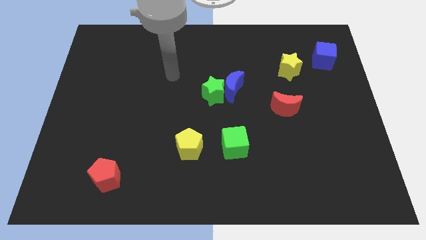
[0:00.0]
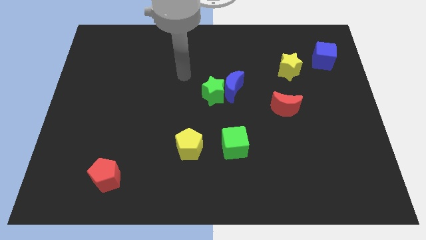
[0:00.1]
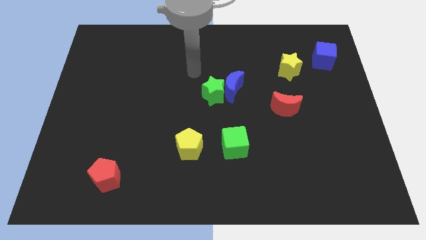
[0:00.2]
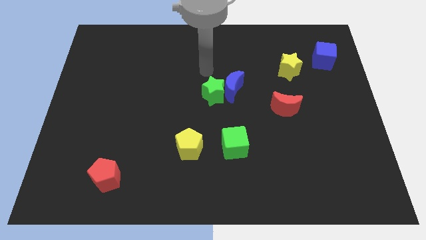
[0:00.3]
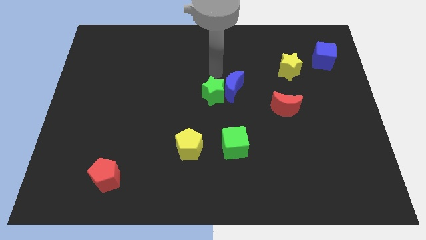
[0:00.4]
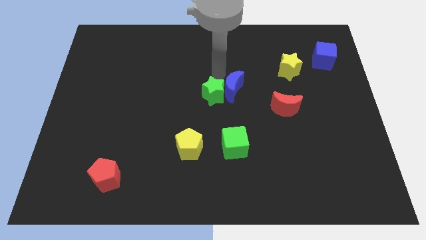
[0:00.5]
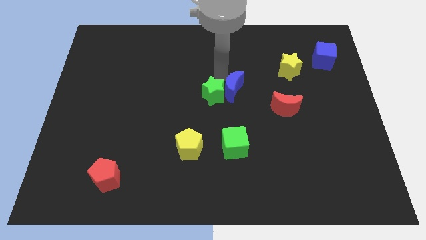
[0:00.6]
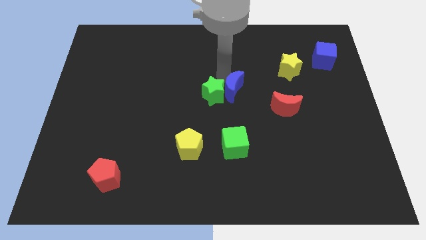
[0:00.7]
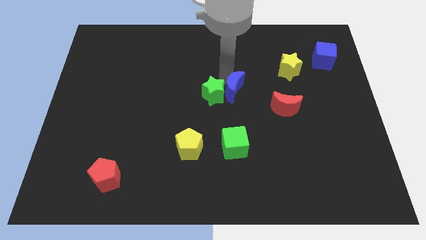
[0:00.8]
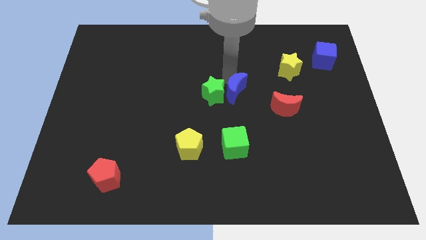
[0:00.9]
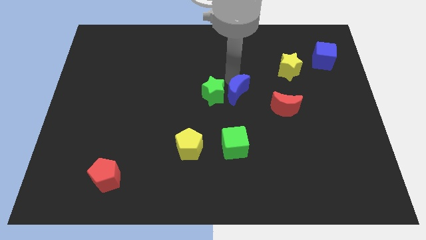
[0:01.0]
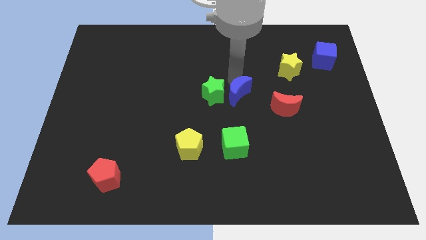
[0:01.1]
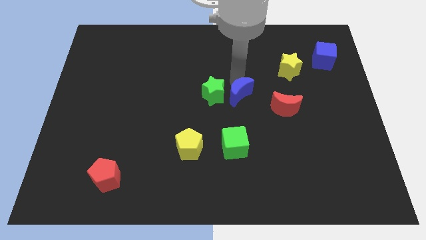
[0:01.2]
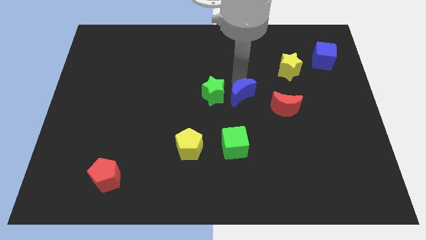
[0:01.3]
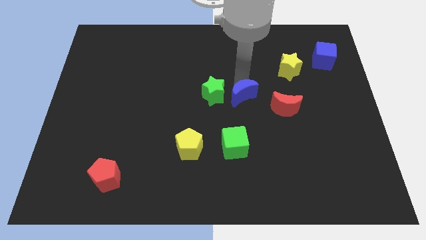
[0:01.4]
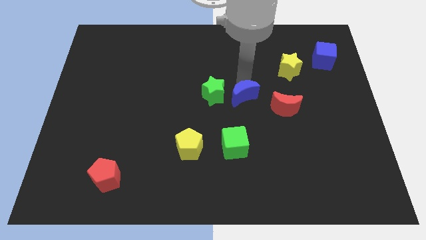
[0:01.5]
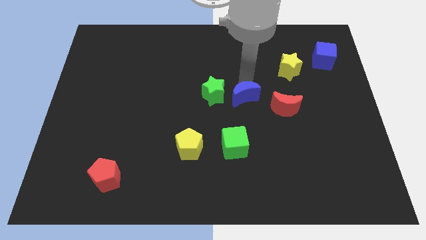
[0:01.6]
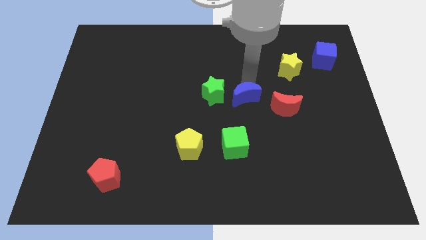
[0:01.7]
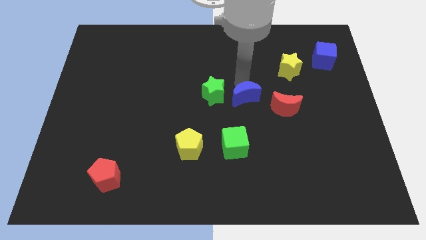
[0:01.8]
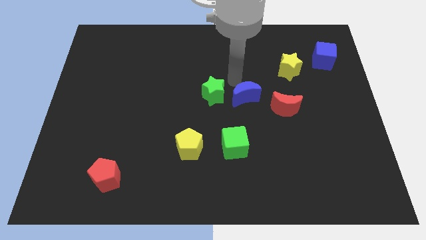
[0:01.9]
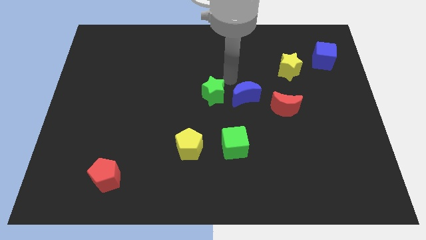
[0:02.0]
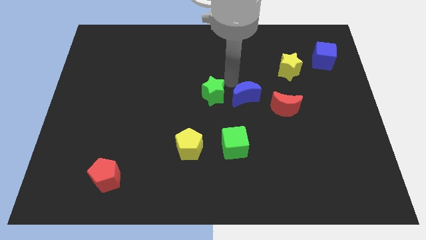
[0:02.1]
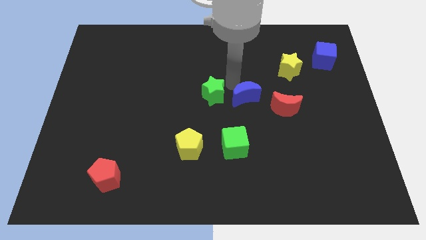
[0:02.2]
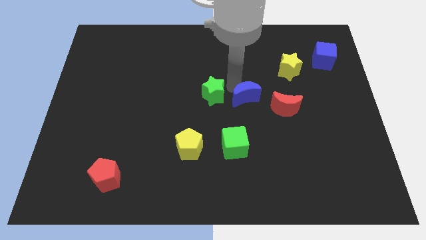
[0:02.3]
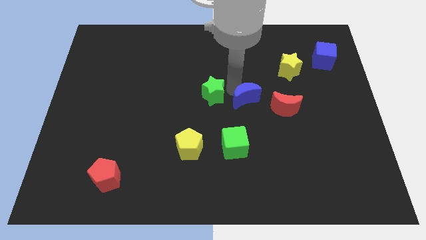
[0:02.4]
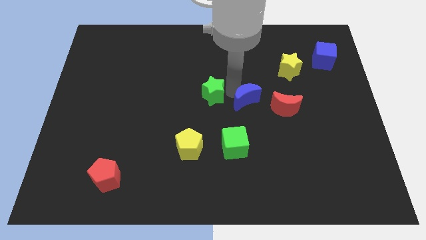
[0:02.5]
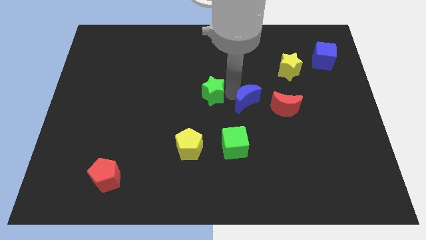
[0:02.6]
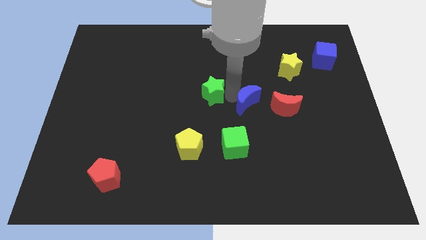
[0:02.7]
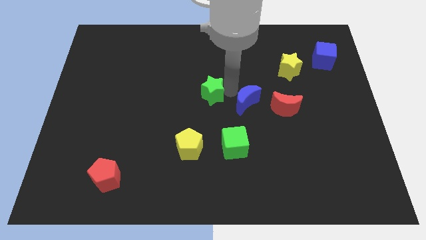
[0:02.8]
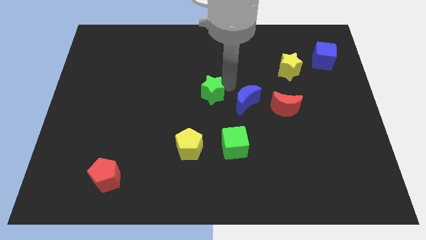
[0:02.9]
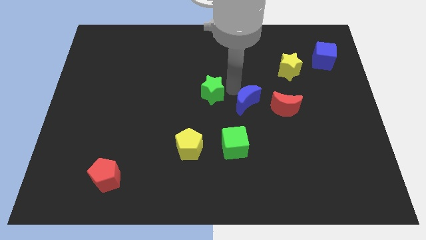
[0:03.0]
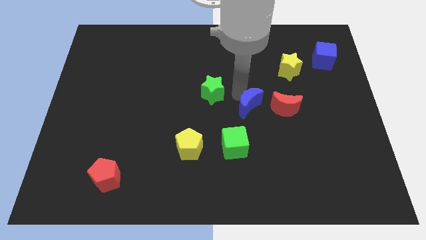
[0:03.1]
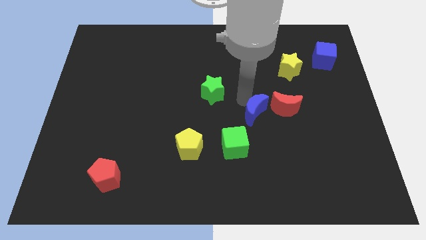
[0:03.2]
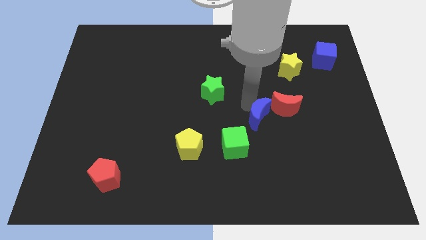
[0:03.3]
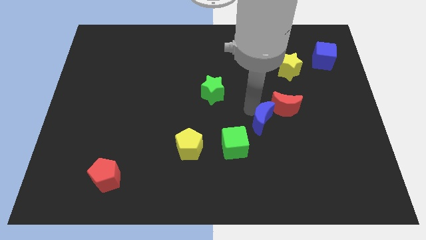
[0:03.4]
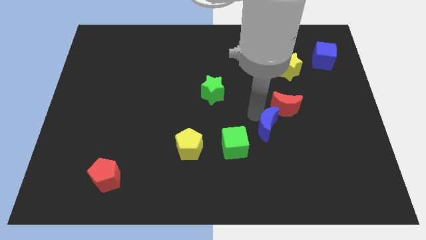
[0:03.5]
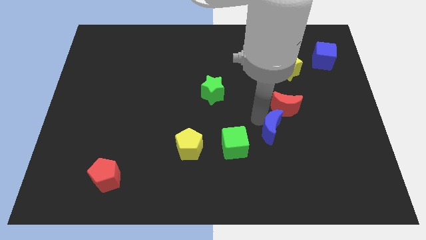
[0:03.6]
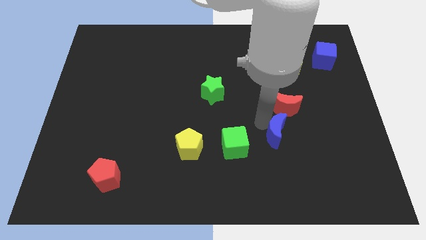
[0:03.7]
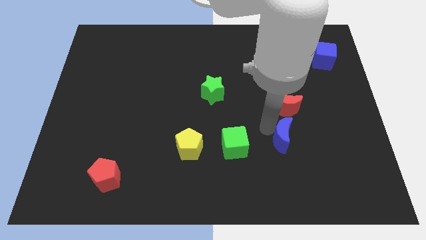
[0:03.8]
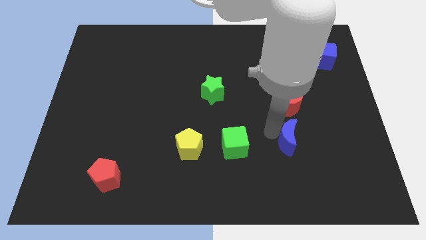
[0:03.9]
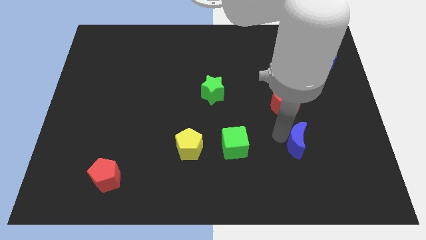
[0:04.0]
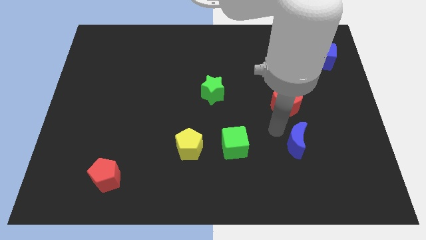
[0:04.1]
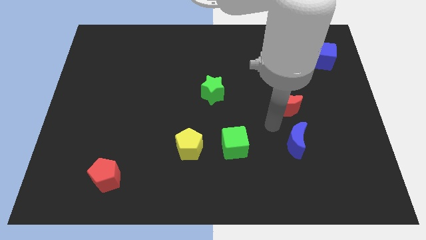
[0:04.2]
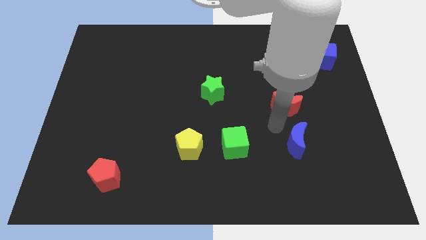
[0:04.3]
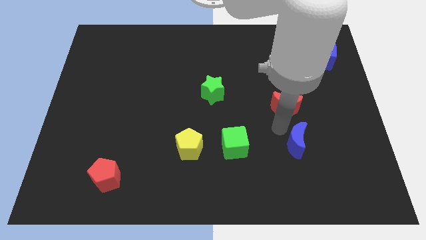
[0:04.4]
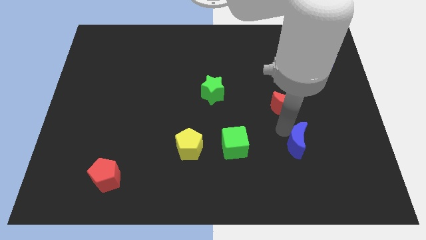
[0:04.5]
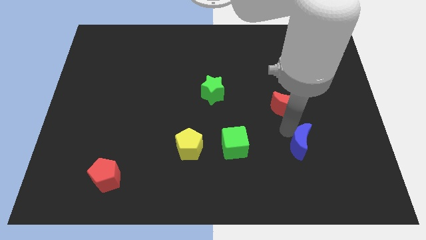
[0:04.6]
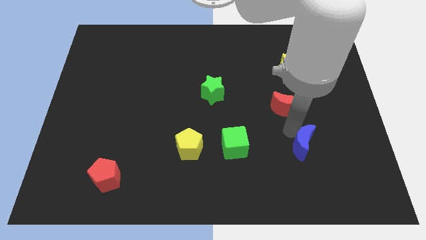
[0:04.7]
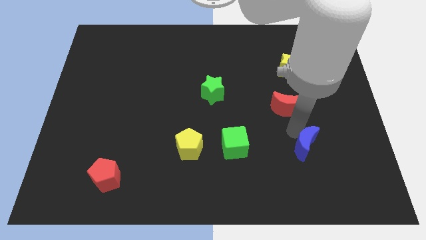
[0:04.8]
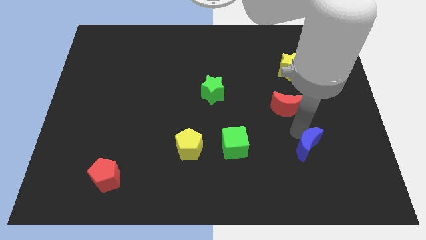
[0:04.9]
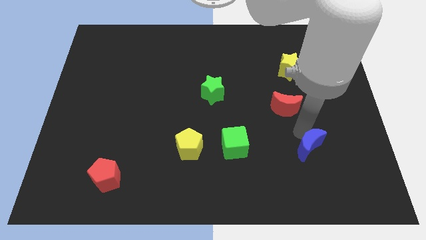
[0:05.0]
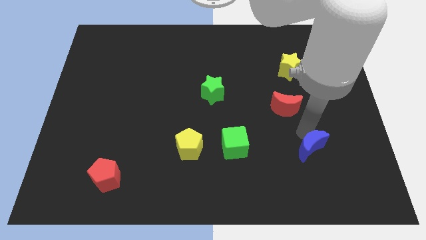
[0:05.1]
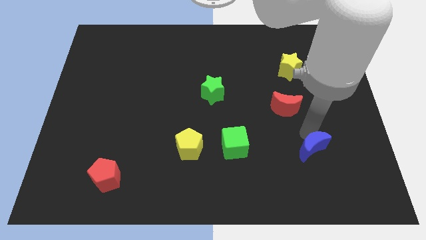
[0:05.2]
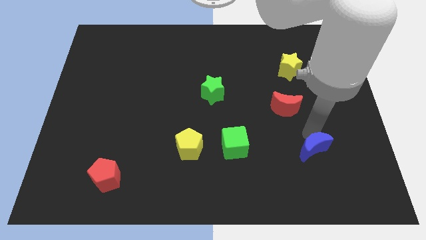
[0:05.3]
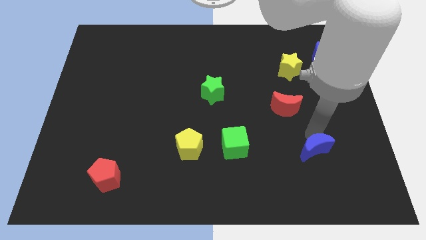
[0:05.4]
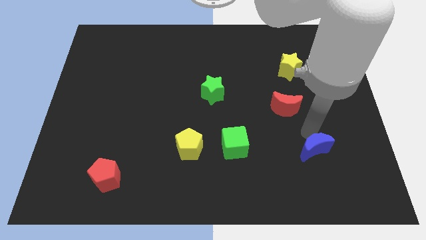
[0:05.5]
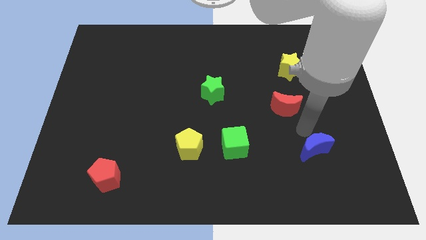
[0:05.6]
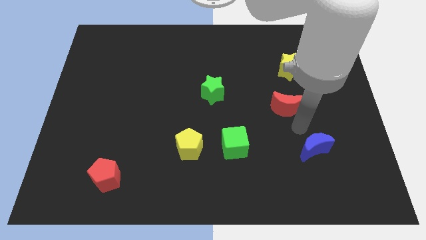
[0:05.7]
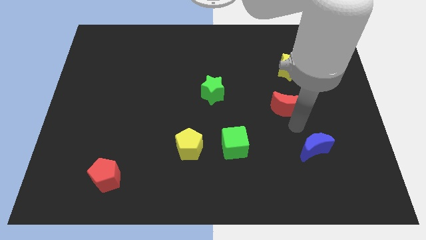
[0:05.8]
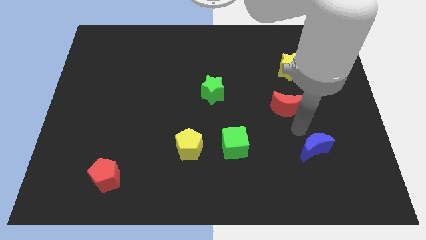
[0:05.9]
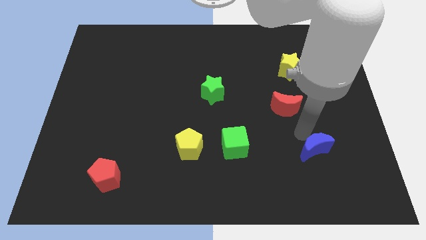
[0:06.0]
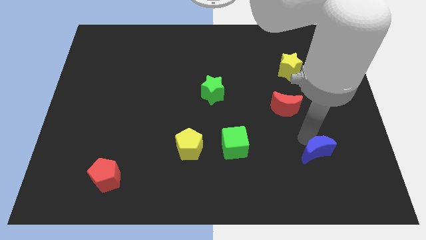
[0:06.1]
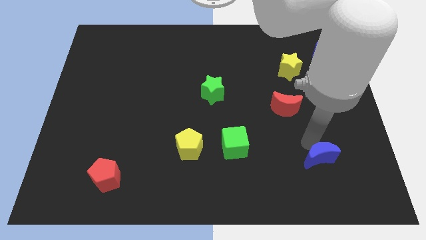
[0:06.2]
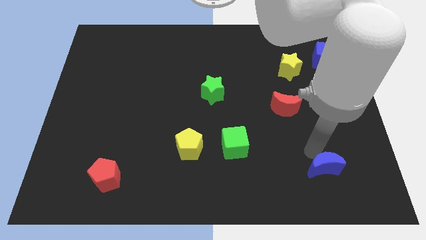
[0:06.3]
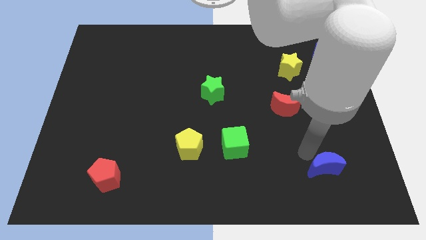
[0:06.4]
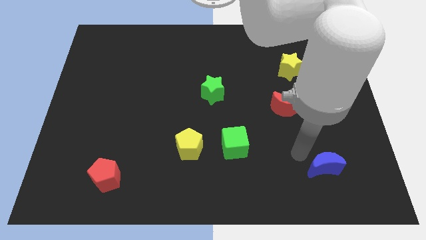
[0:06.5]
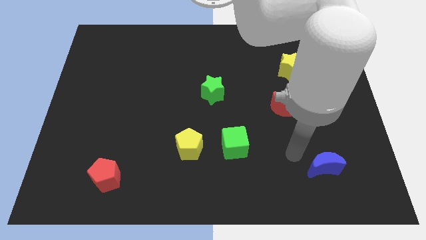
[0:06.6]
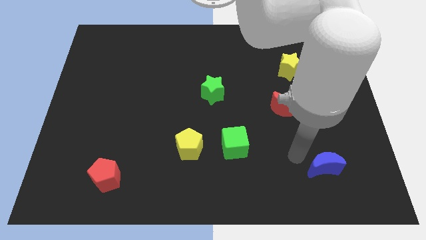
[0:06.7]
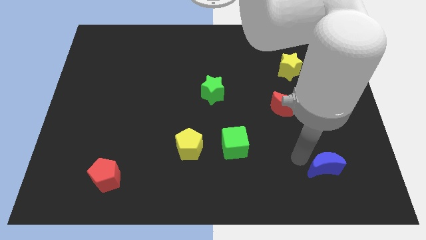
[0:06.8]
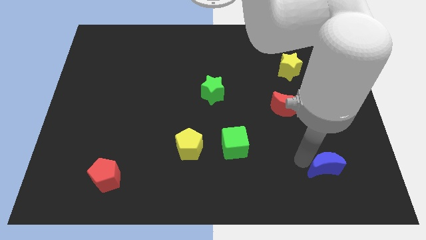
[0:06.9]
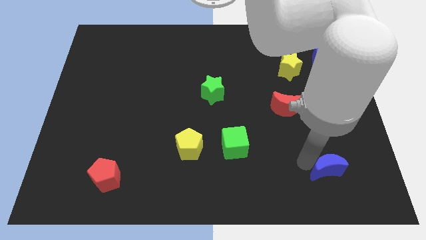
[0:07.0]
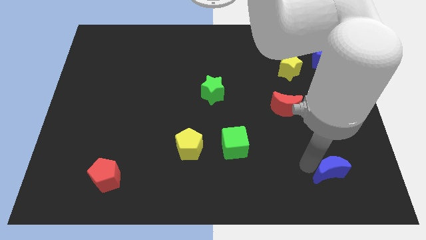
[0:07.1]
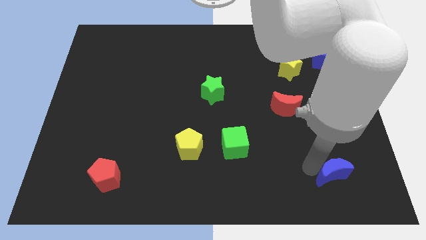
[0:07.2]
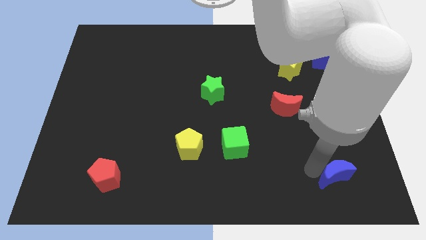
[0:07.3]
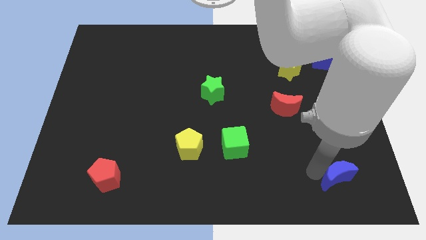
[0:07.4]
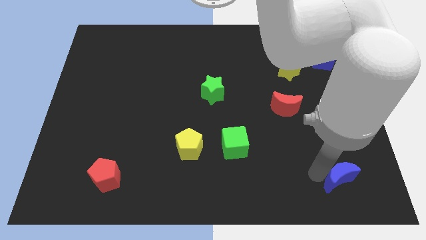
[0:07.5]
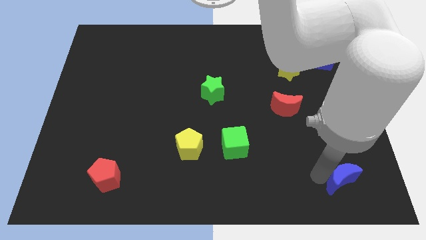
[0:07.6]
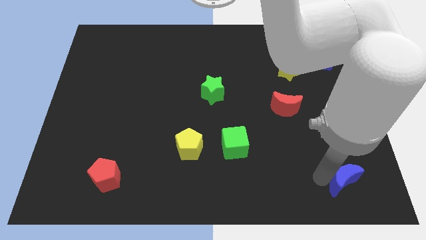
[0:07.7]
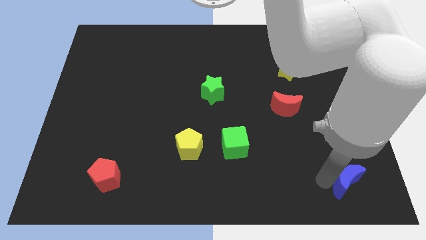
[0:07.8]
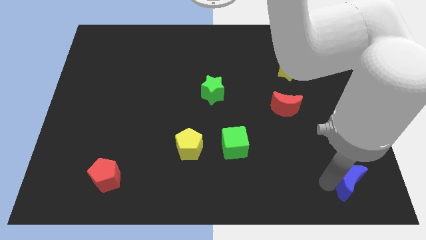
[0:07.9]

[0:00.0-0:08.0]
put the blue moon to the bottom right
